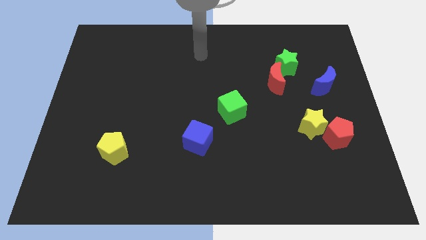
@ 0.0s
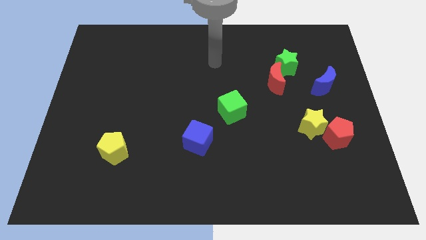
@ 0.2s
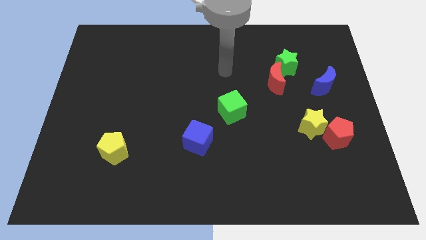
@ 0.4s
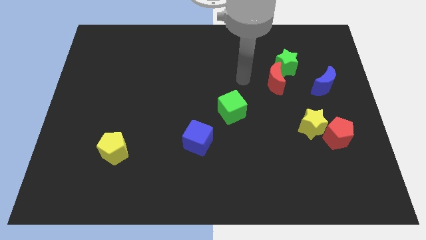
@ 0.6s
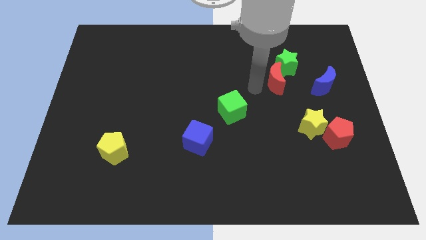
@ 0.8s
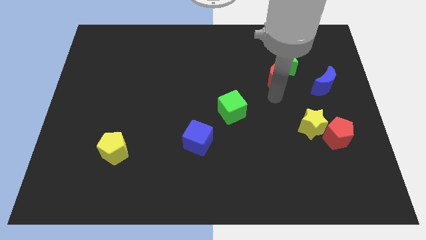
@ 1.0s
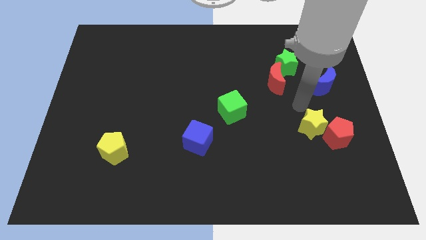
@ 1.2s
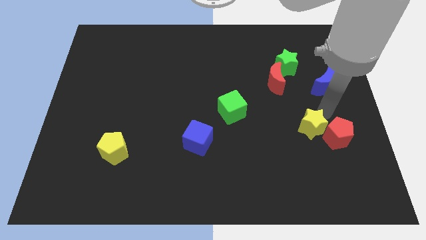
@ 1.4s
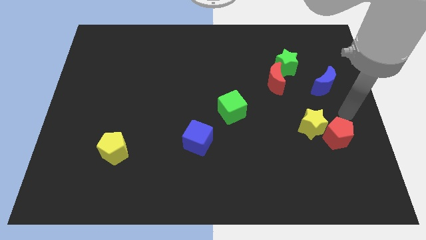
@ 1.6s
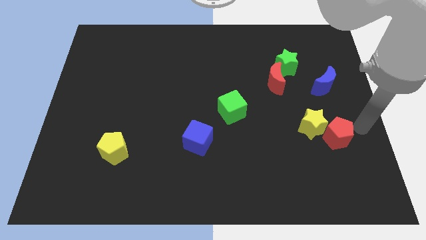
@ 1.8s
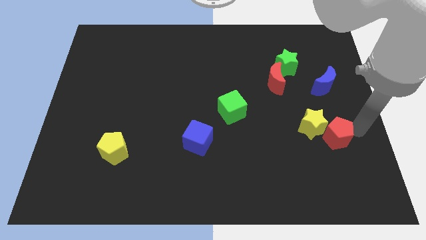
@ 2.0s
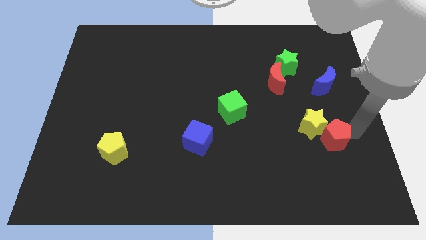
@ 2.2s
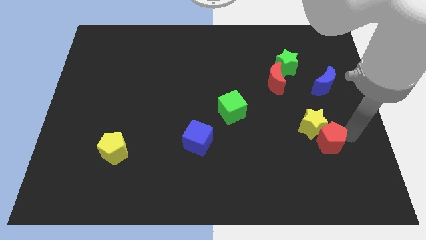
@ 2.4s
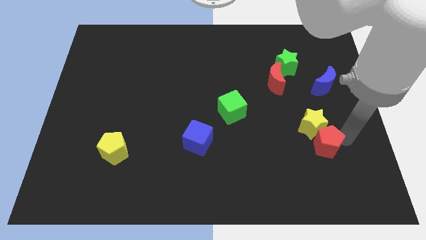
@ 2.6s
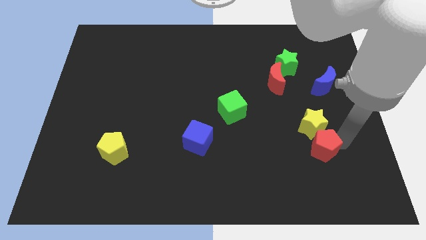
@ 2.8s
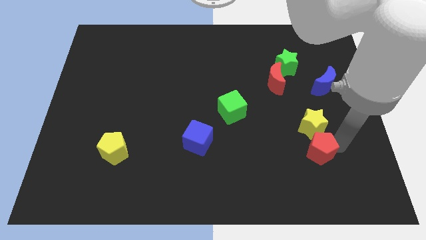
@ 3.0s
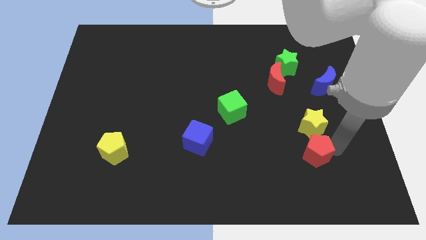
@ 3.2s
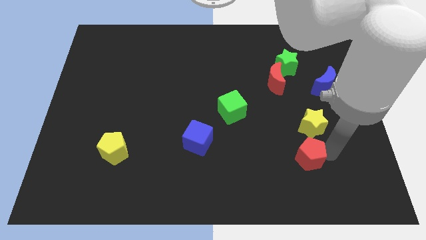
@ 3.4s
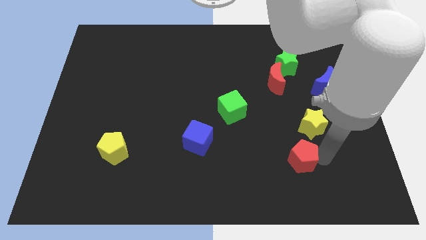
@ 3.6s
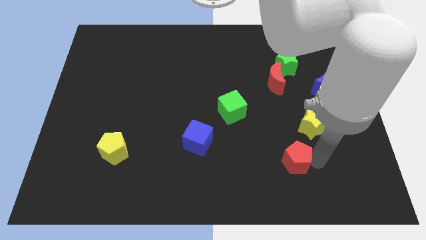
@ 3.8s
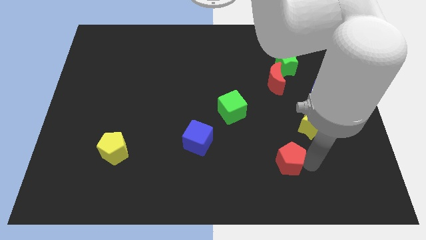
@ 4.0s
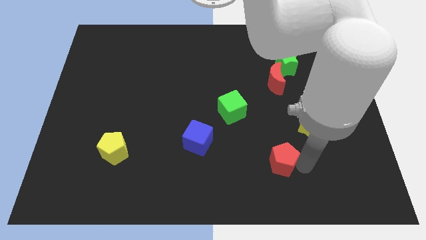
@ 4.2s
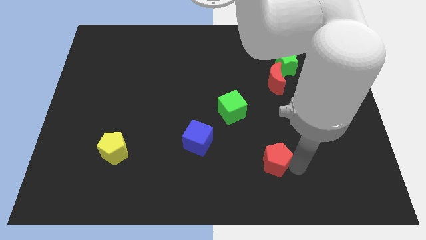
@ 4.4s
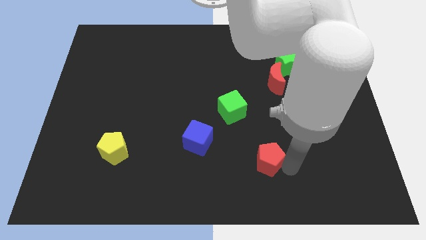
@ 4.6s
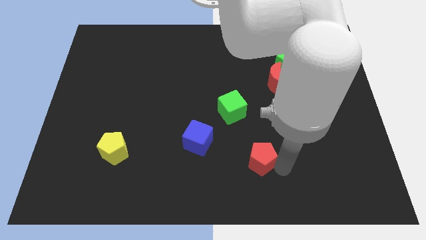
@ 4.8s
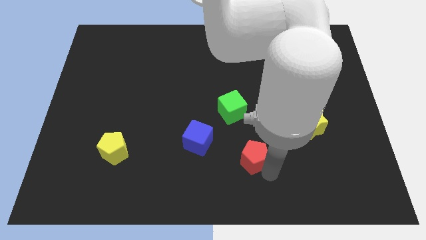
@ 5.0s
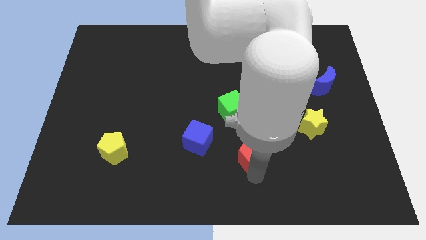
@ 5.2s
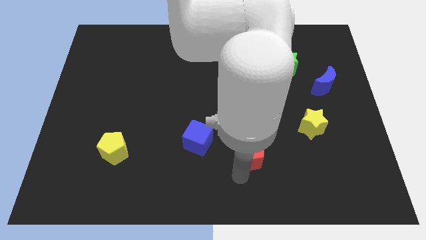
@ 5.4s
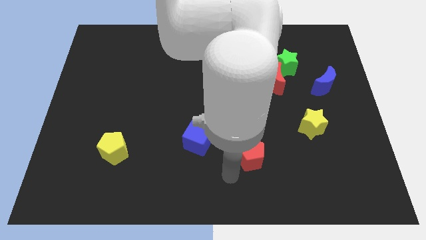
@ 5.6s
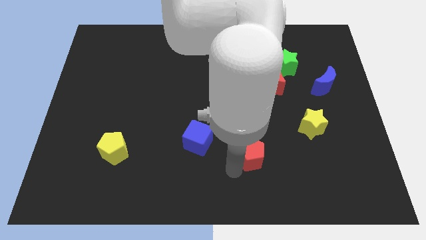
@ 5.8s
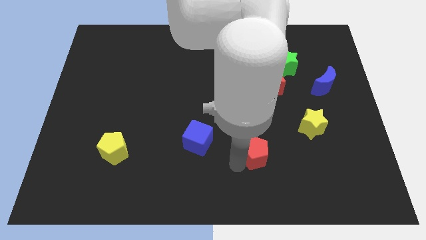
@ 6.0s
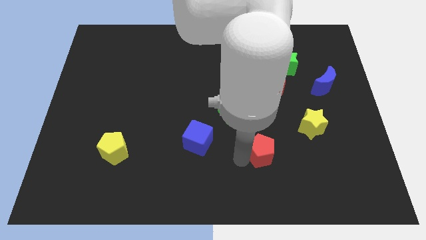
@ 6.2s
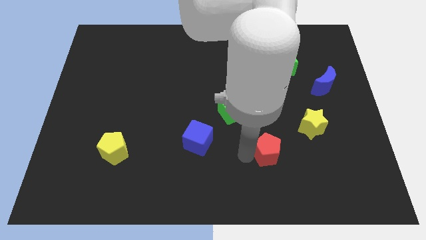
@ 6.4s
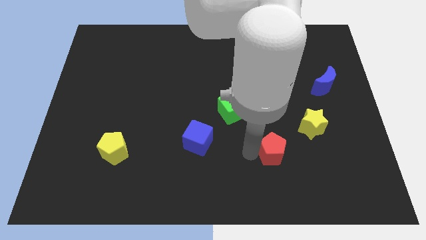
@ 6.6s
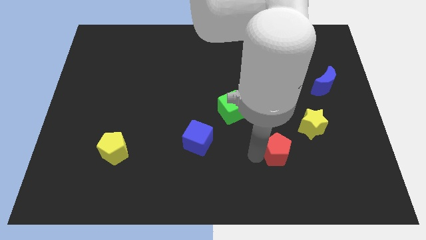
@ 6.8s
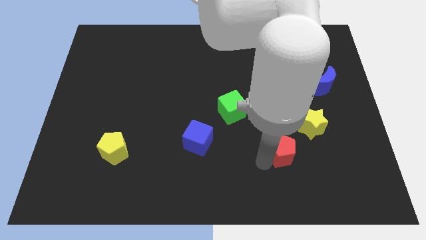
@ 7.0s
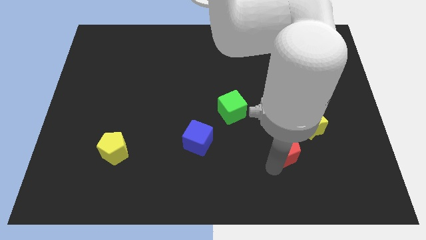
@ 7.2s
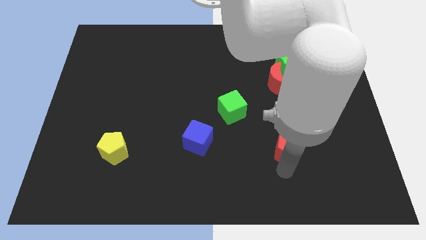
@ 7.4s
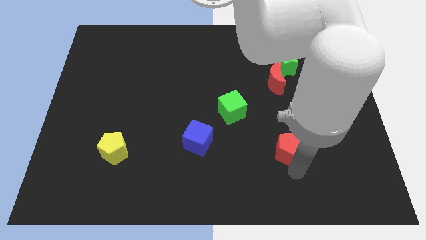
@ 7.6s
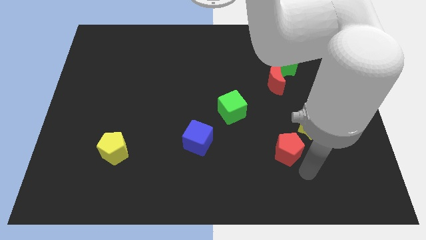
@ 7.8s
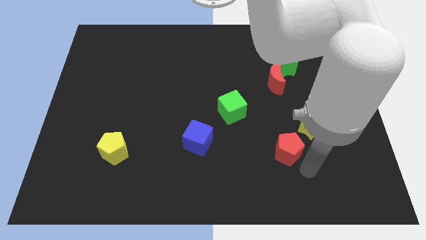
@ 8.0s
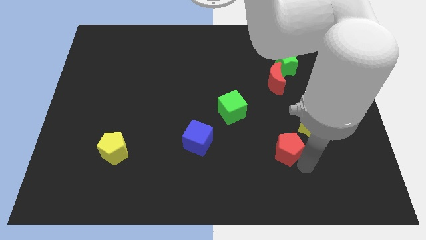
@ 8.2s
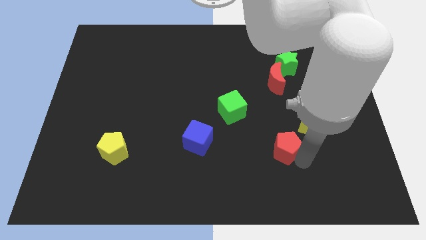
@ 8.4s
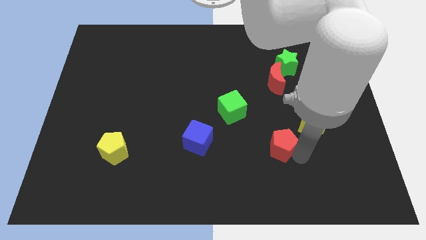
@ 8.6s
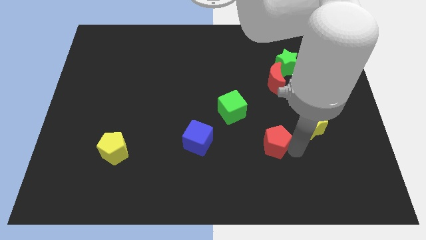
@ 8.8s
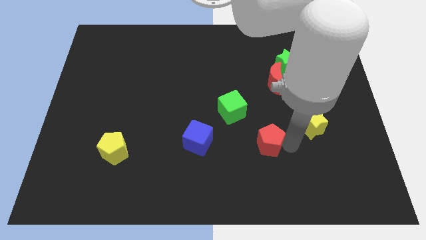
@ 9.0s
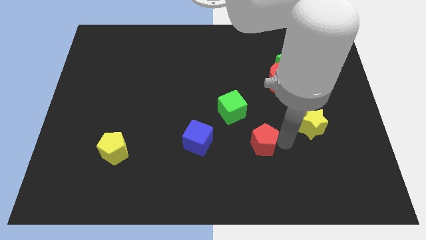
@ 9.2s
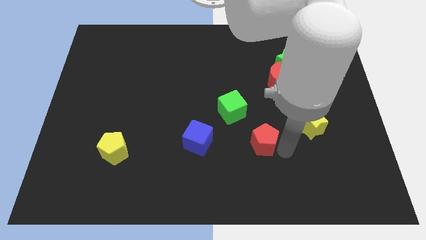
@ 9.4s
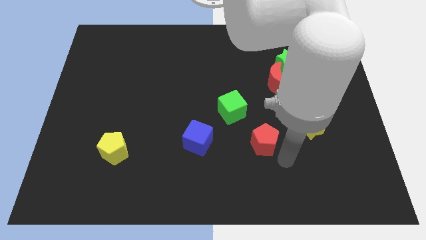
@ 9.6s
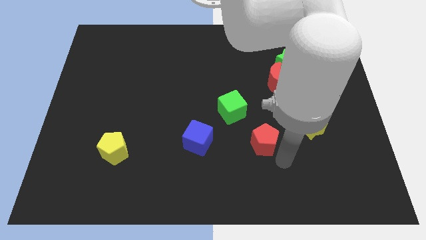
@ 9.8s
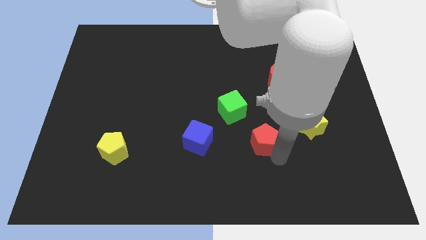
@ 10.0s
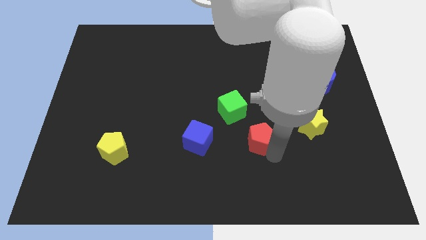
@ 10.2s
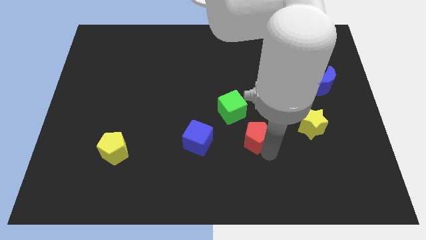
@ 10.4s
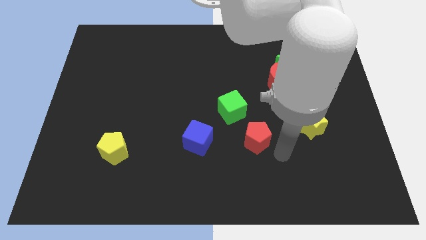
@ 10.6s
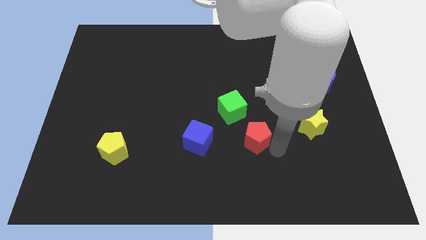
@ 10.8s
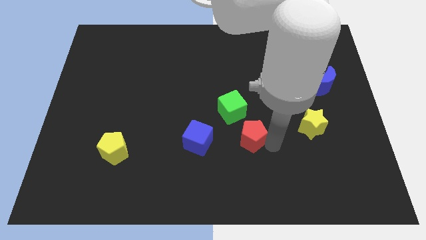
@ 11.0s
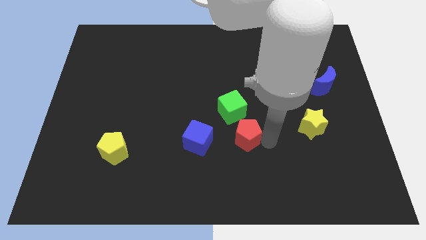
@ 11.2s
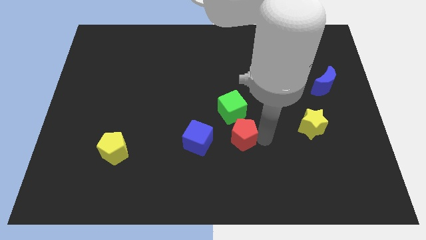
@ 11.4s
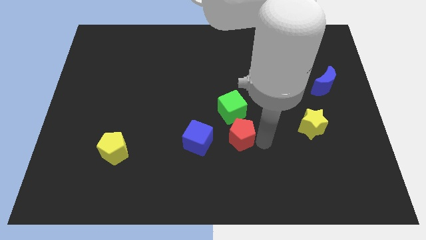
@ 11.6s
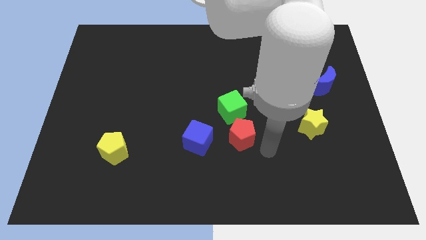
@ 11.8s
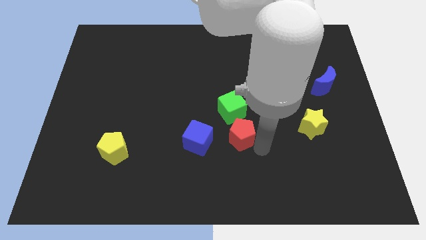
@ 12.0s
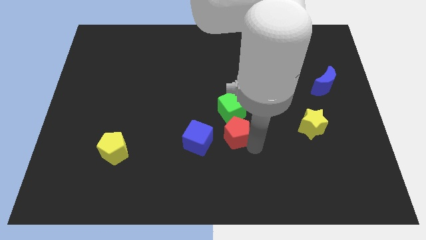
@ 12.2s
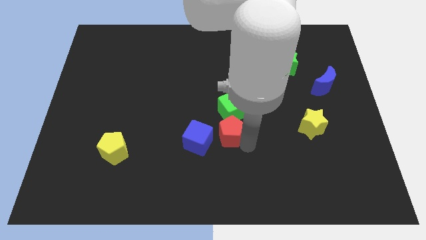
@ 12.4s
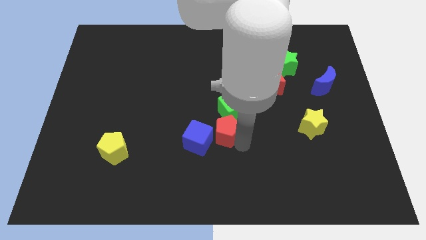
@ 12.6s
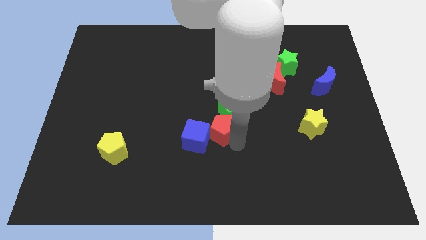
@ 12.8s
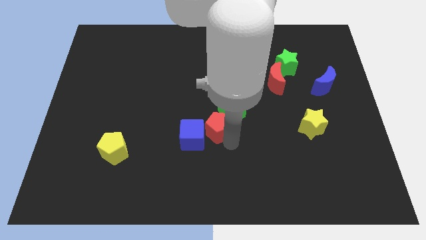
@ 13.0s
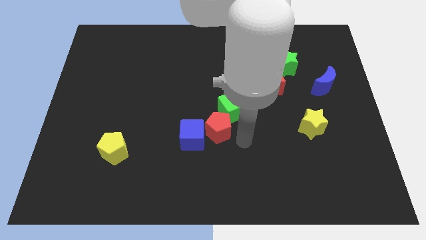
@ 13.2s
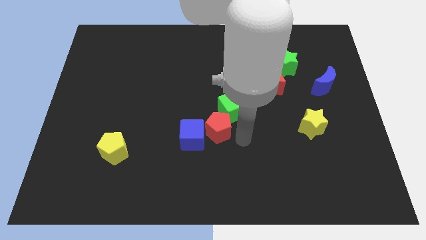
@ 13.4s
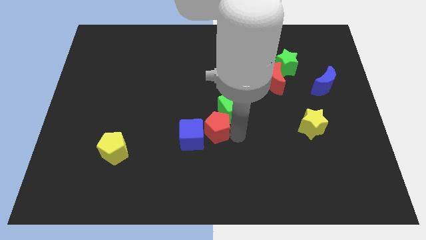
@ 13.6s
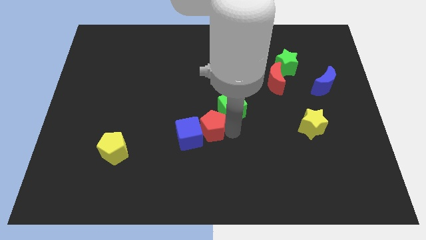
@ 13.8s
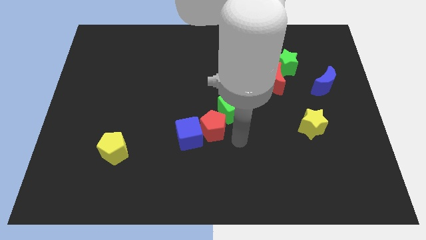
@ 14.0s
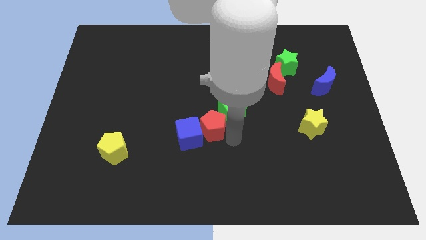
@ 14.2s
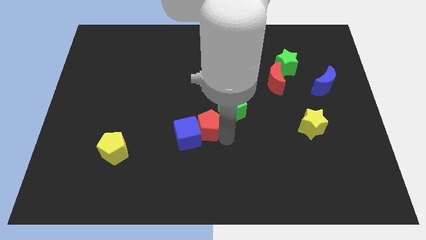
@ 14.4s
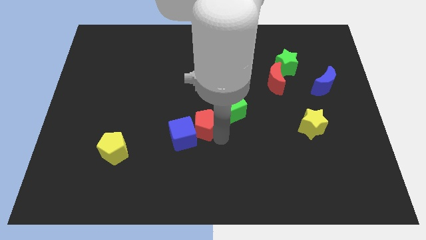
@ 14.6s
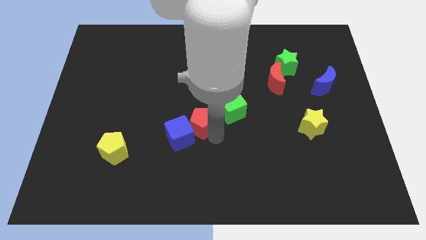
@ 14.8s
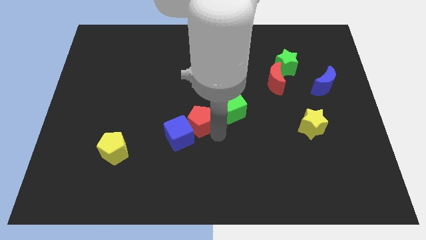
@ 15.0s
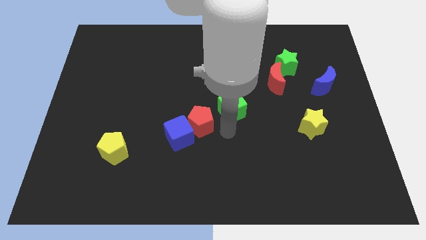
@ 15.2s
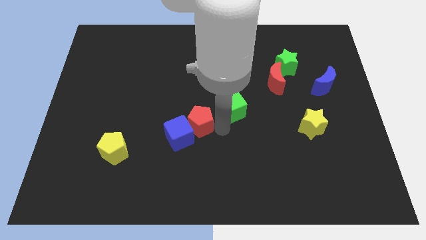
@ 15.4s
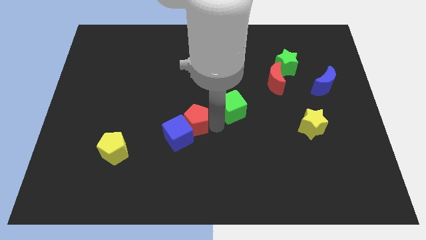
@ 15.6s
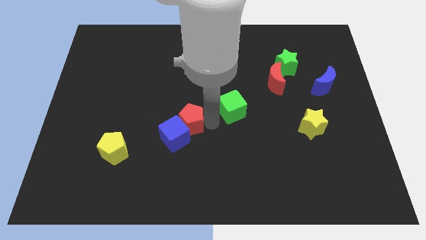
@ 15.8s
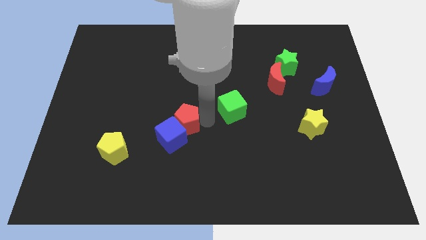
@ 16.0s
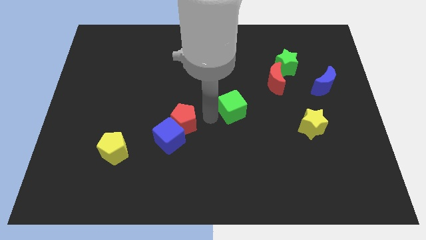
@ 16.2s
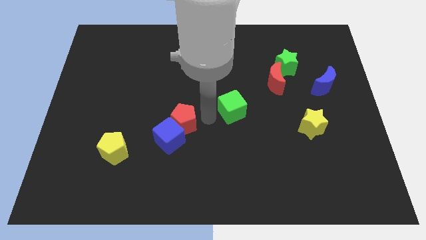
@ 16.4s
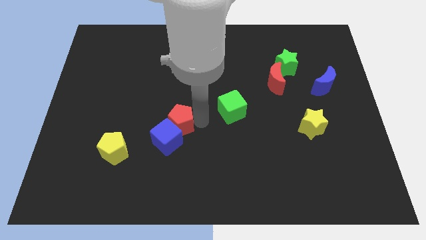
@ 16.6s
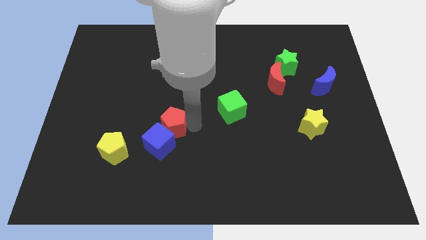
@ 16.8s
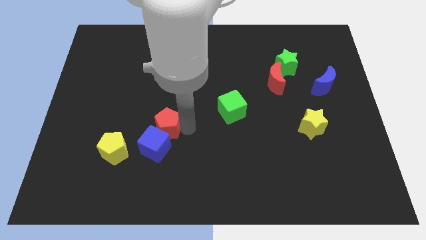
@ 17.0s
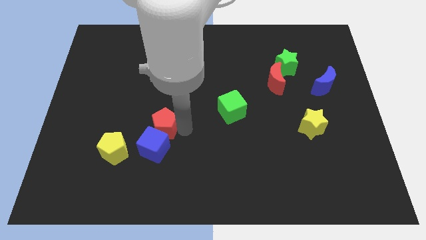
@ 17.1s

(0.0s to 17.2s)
push the red pentagon diagonally up and to the right of the yellow pentagon
